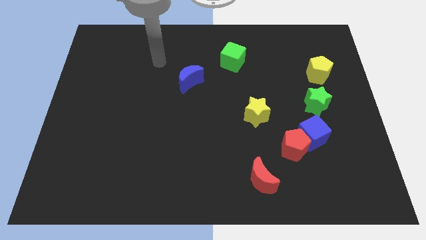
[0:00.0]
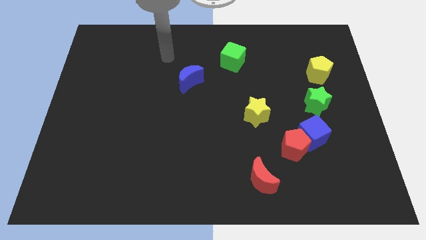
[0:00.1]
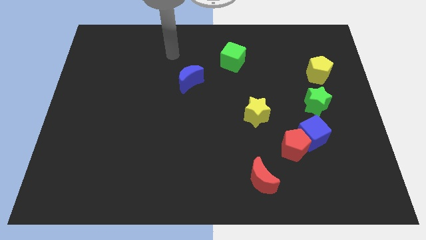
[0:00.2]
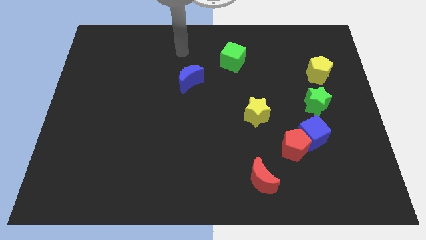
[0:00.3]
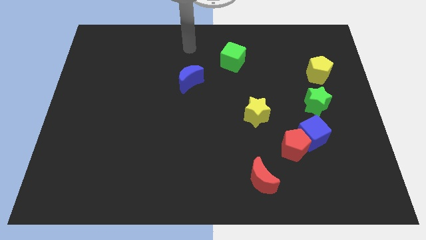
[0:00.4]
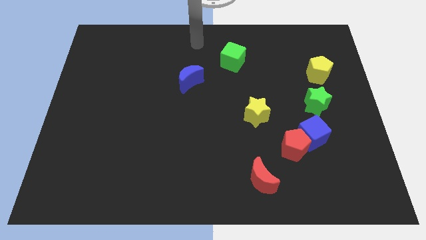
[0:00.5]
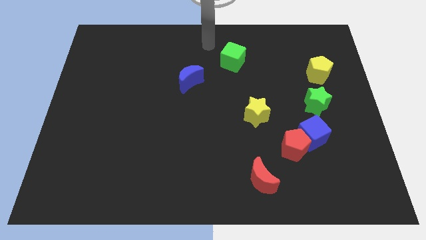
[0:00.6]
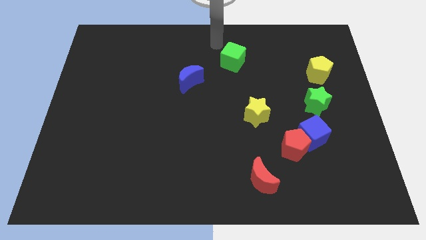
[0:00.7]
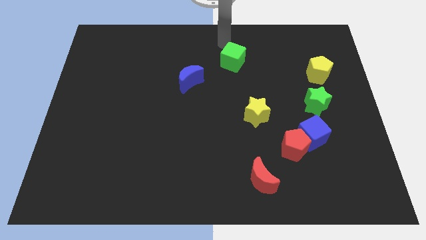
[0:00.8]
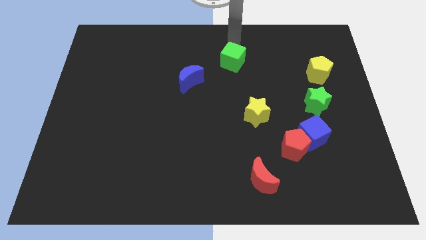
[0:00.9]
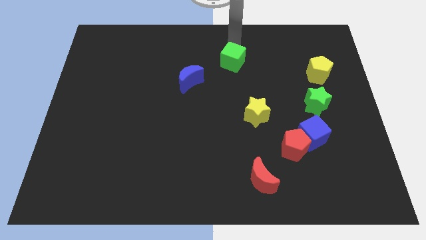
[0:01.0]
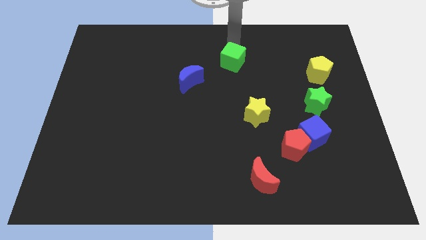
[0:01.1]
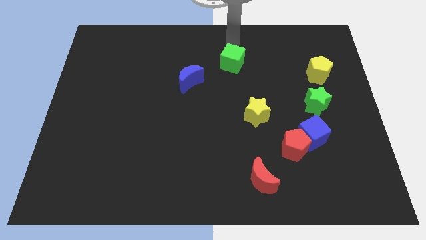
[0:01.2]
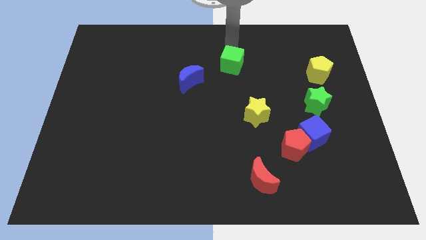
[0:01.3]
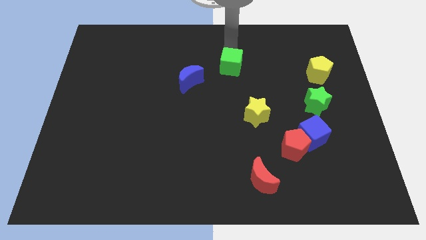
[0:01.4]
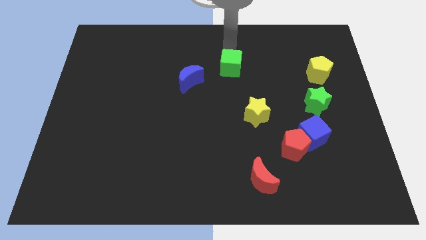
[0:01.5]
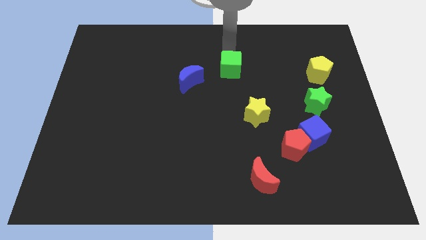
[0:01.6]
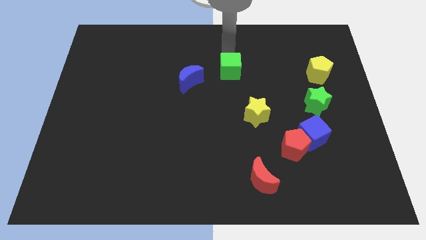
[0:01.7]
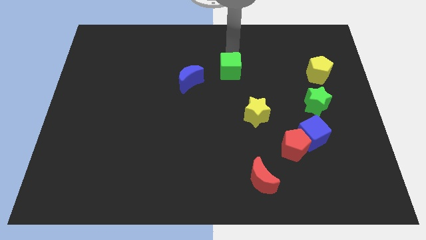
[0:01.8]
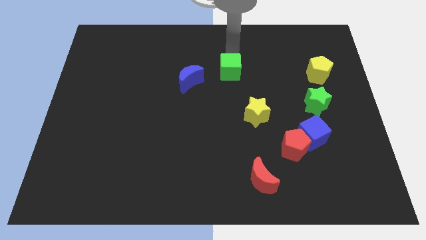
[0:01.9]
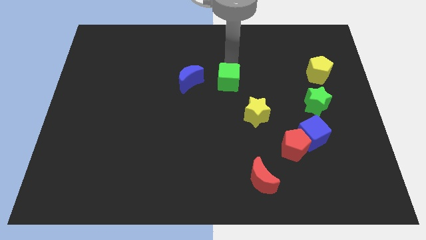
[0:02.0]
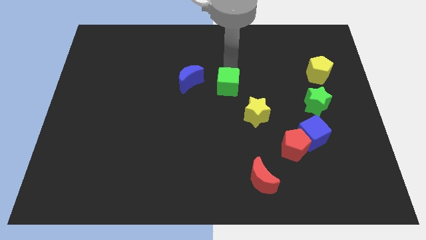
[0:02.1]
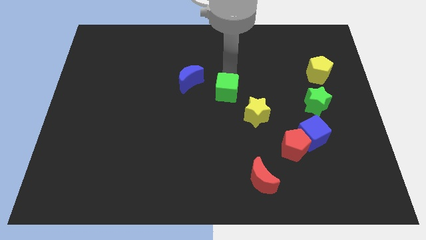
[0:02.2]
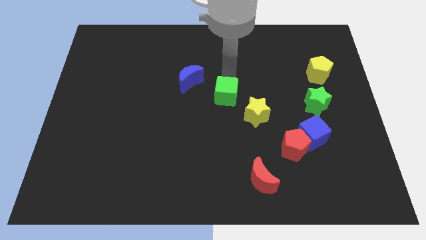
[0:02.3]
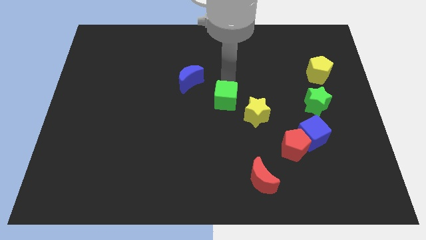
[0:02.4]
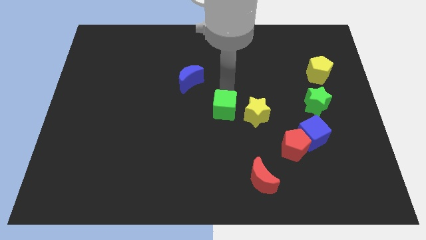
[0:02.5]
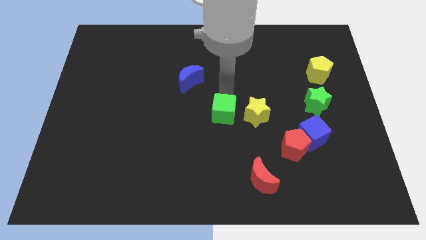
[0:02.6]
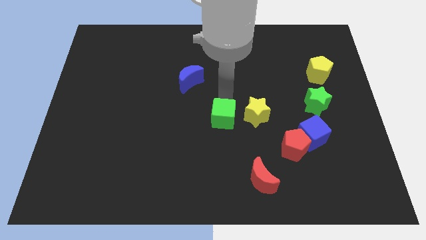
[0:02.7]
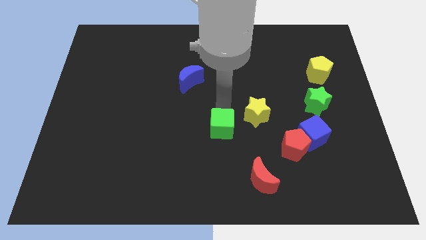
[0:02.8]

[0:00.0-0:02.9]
move the green cube downwards

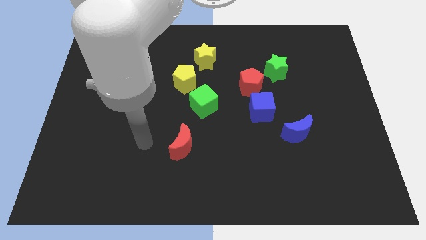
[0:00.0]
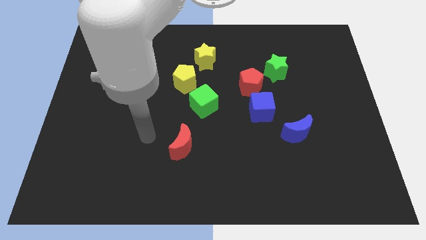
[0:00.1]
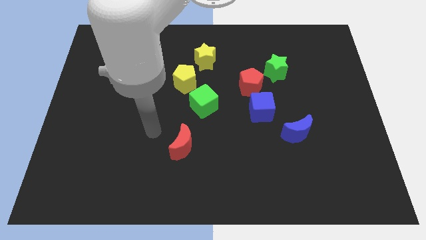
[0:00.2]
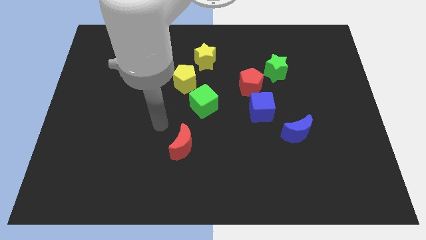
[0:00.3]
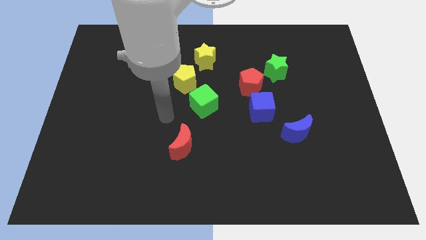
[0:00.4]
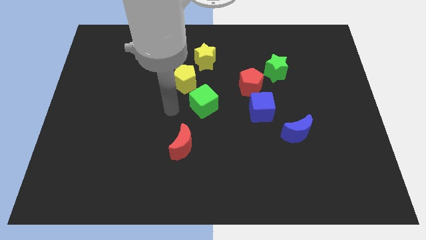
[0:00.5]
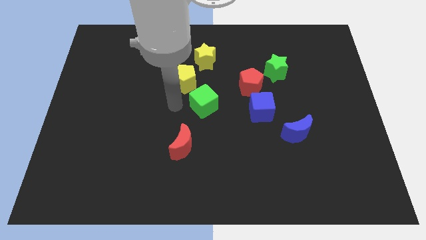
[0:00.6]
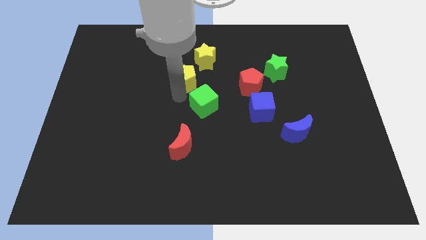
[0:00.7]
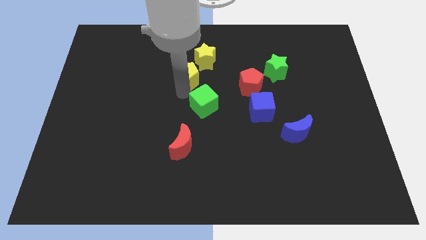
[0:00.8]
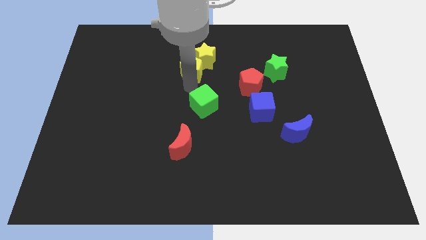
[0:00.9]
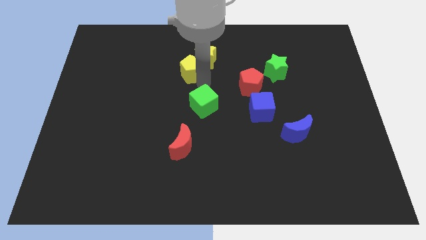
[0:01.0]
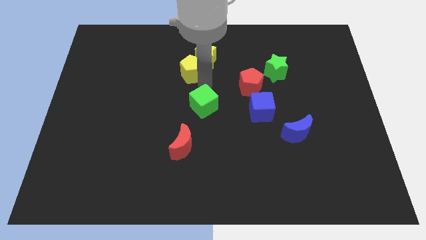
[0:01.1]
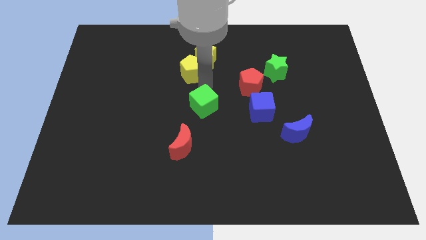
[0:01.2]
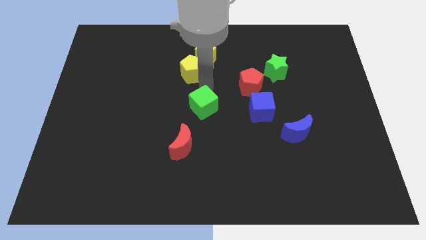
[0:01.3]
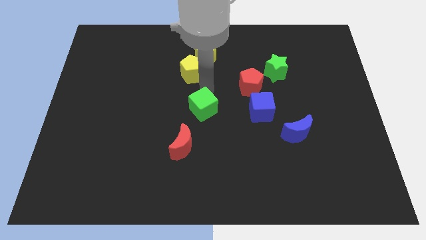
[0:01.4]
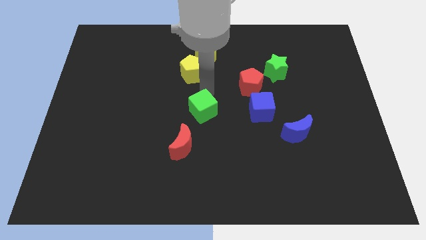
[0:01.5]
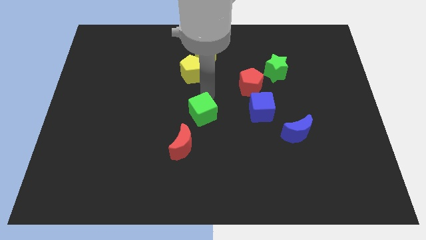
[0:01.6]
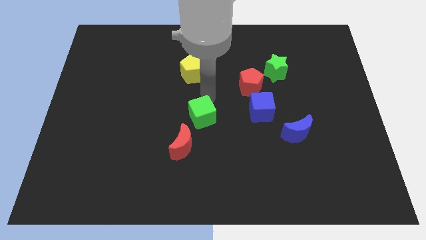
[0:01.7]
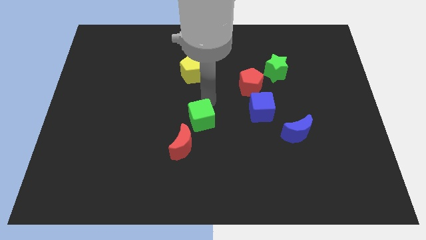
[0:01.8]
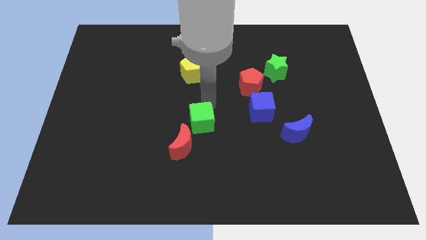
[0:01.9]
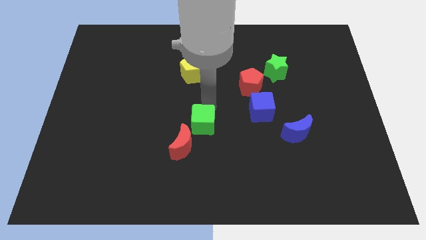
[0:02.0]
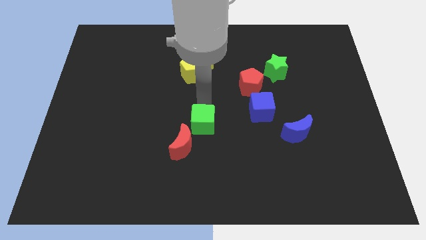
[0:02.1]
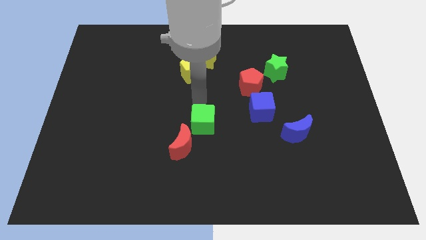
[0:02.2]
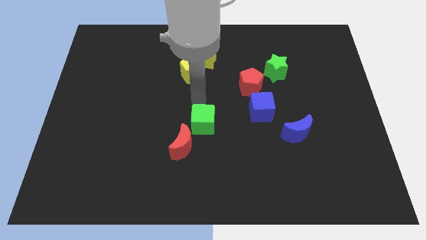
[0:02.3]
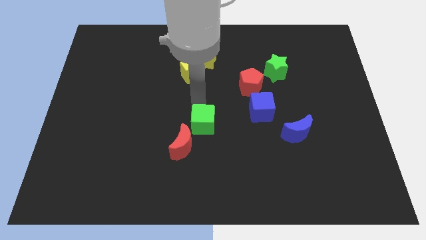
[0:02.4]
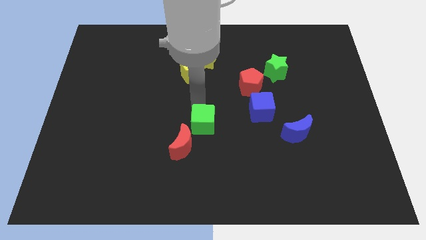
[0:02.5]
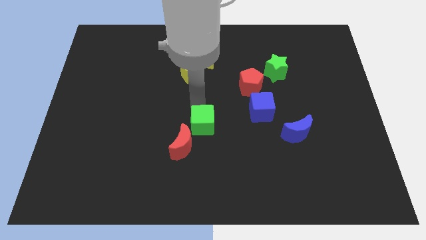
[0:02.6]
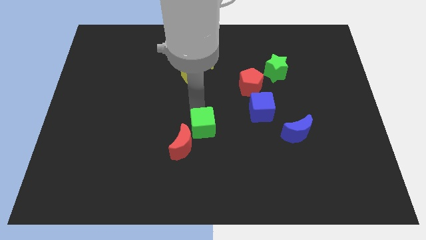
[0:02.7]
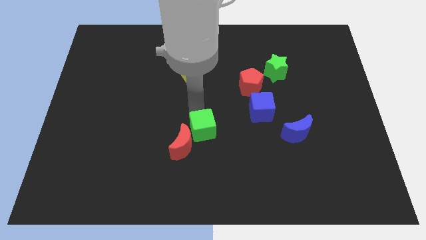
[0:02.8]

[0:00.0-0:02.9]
move the green cube a bit down

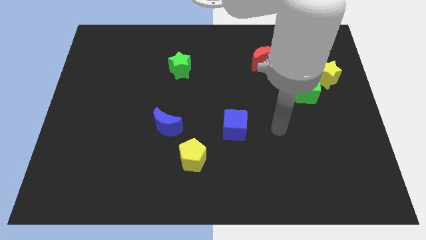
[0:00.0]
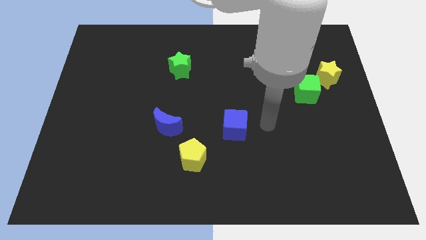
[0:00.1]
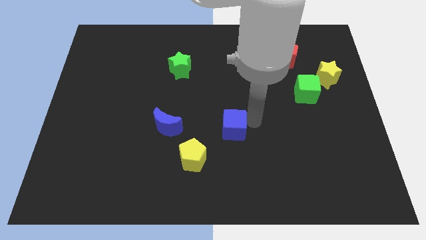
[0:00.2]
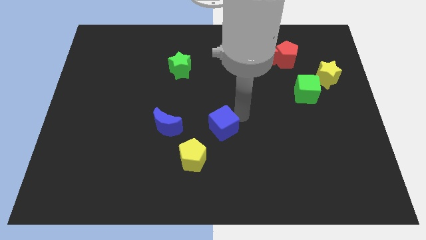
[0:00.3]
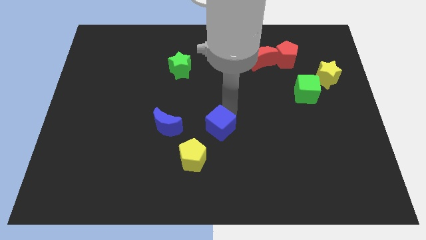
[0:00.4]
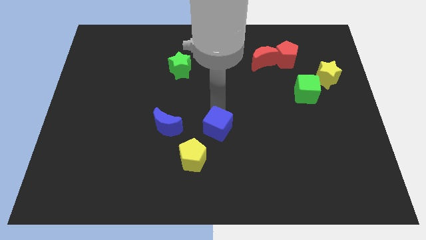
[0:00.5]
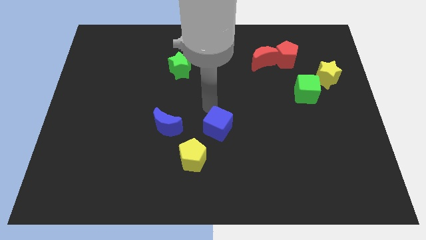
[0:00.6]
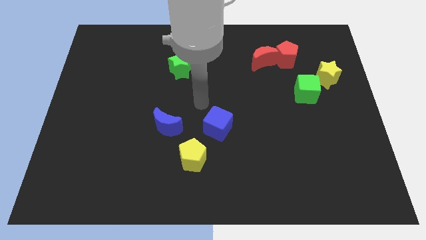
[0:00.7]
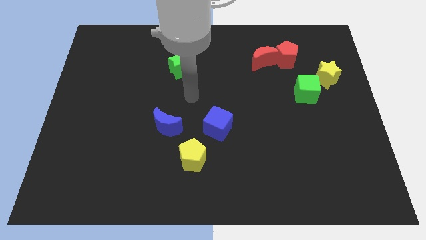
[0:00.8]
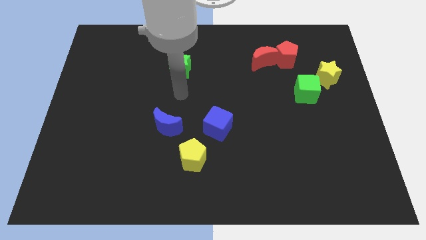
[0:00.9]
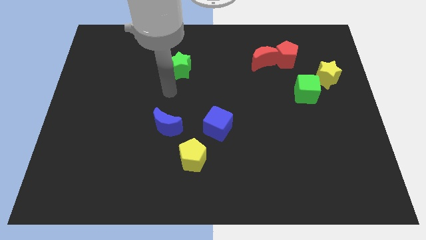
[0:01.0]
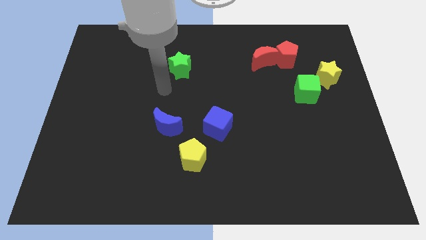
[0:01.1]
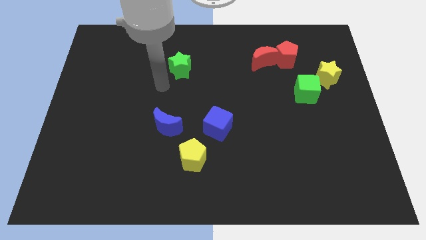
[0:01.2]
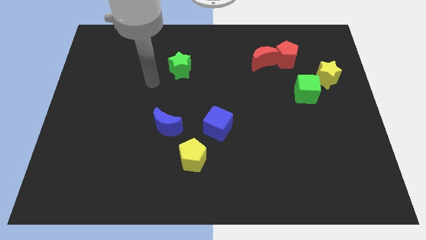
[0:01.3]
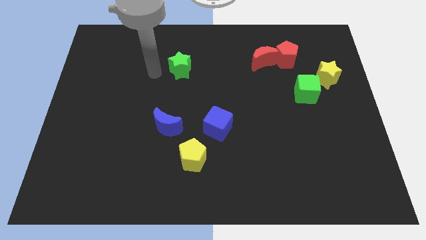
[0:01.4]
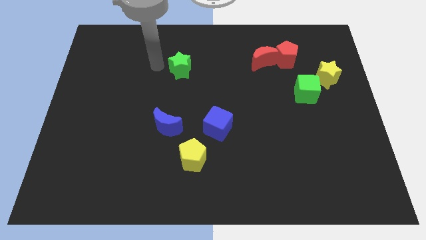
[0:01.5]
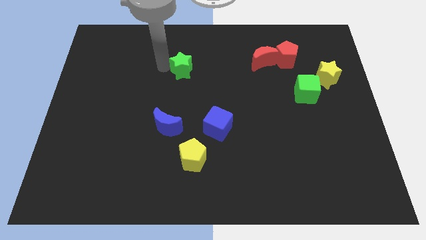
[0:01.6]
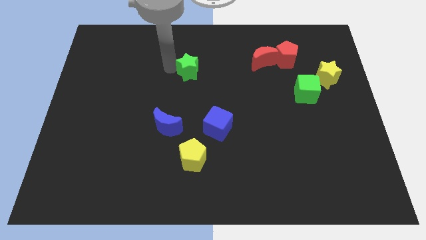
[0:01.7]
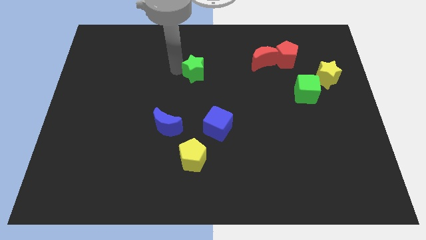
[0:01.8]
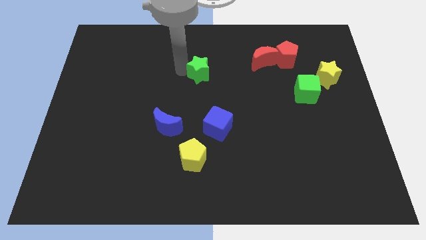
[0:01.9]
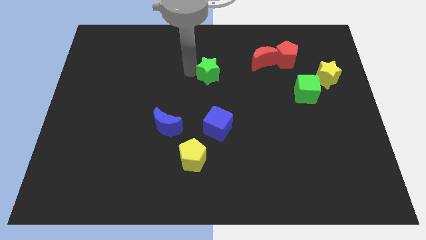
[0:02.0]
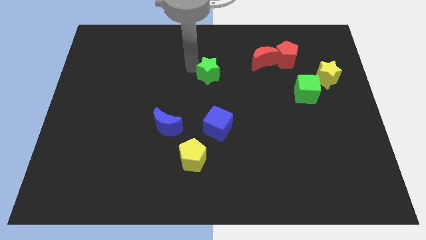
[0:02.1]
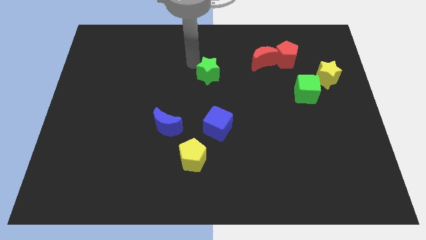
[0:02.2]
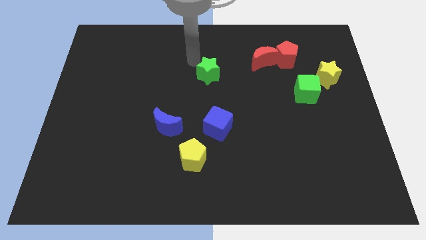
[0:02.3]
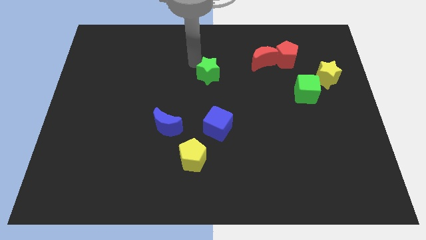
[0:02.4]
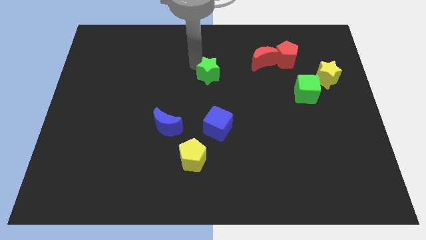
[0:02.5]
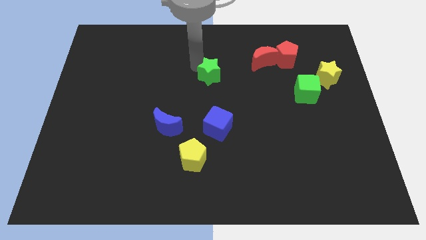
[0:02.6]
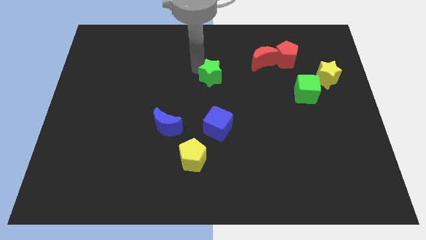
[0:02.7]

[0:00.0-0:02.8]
slightly push the green star down and then to the right
